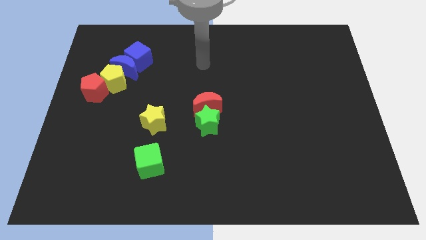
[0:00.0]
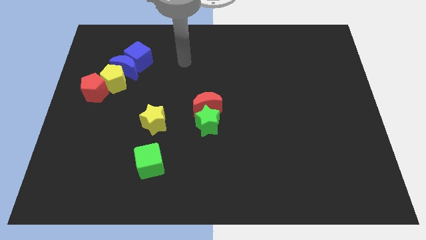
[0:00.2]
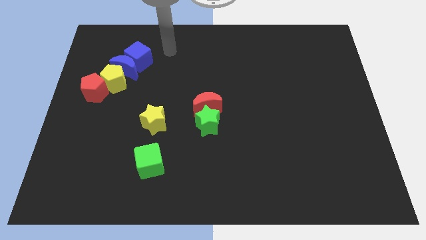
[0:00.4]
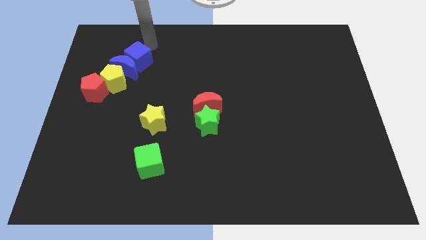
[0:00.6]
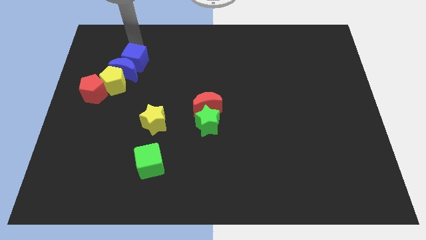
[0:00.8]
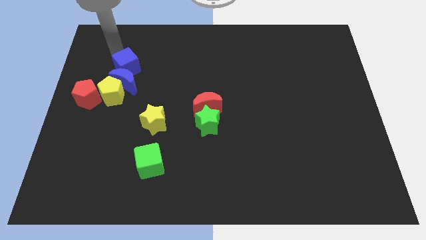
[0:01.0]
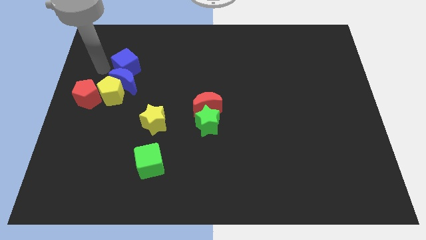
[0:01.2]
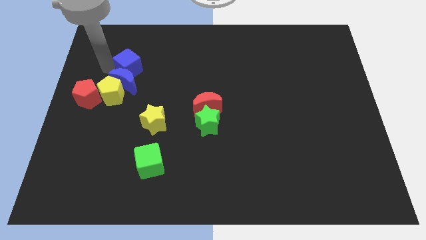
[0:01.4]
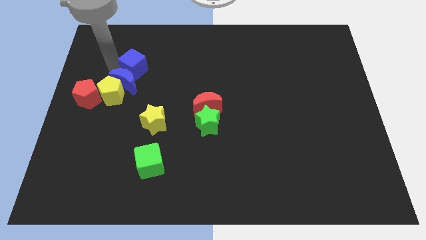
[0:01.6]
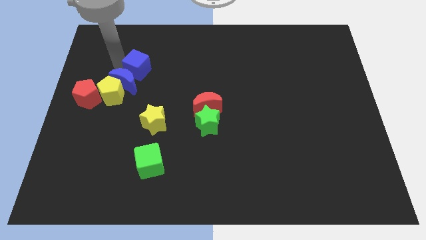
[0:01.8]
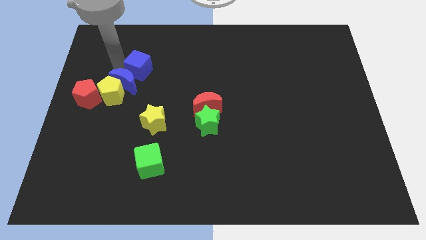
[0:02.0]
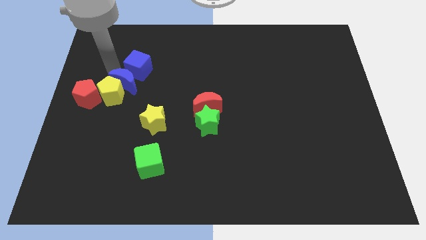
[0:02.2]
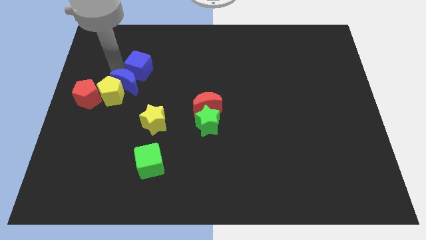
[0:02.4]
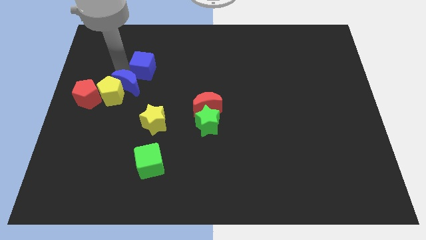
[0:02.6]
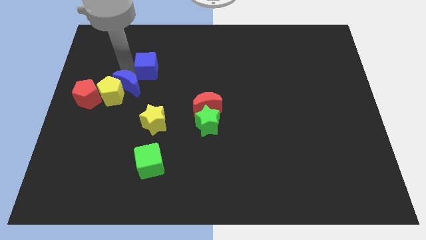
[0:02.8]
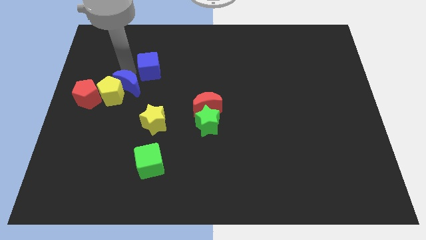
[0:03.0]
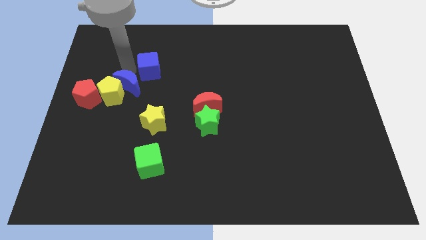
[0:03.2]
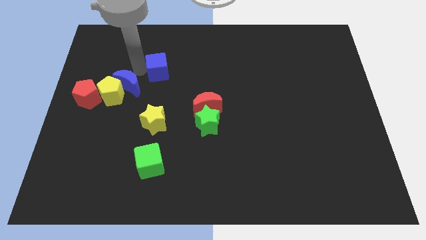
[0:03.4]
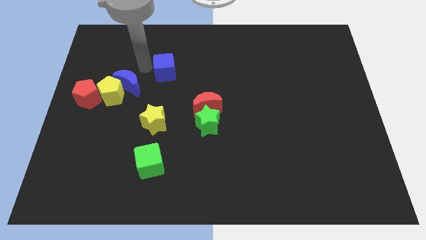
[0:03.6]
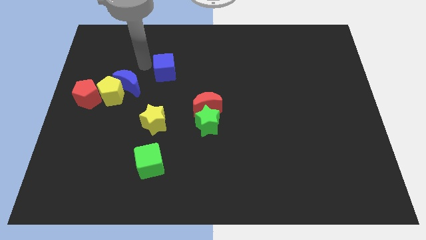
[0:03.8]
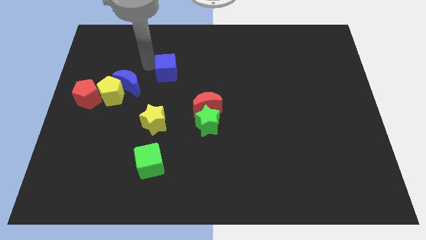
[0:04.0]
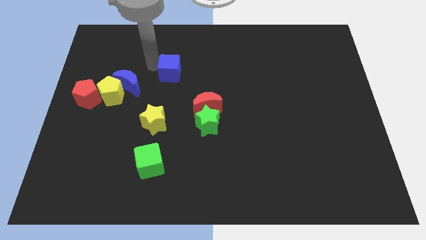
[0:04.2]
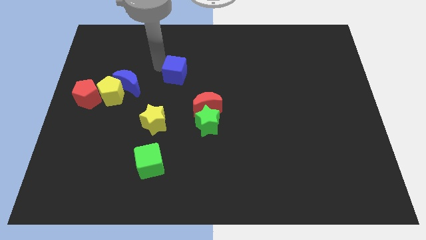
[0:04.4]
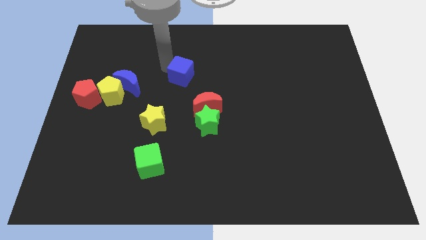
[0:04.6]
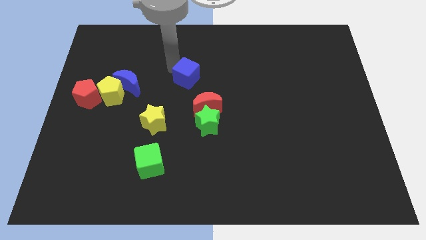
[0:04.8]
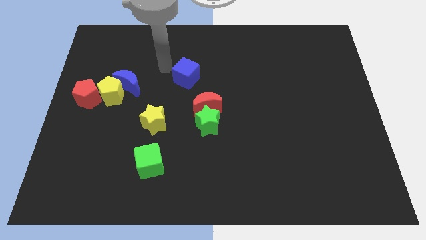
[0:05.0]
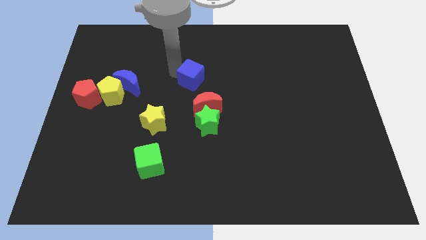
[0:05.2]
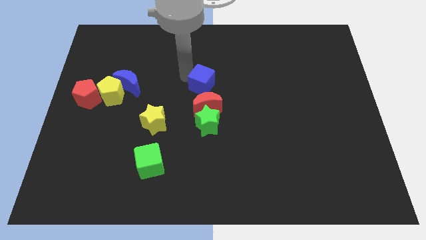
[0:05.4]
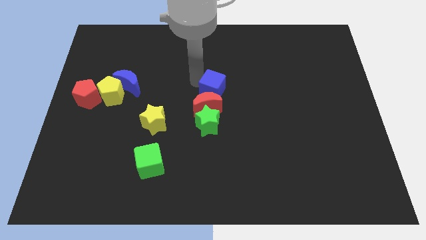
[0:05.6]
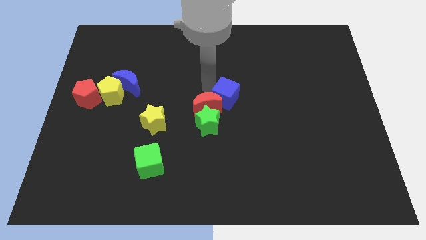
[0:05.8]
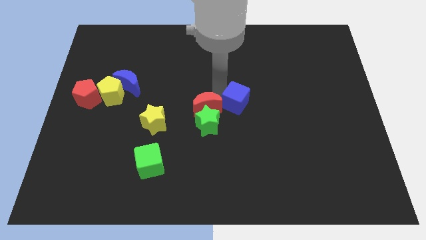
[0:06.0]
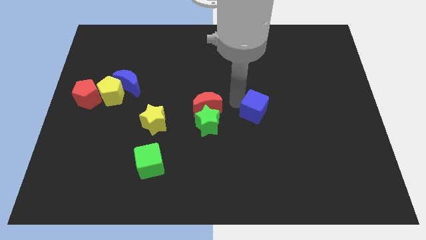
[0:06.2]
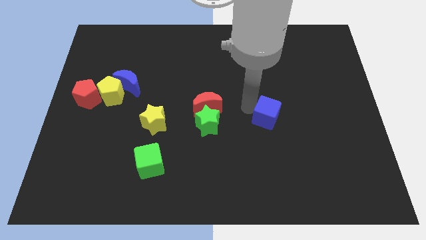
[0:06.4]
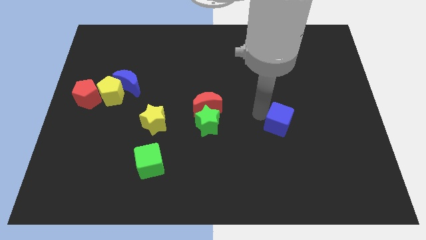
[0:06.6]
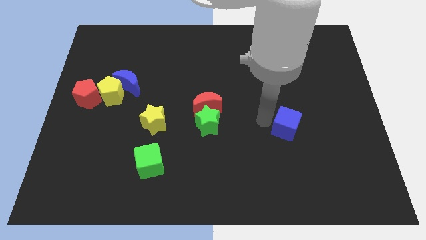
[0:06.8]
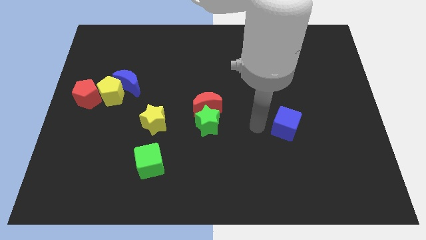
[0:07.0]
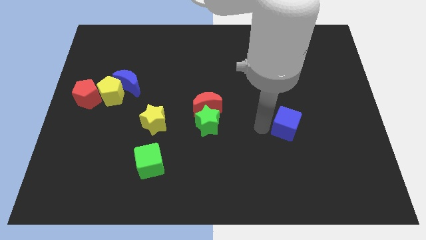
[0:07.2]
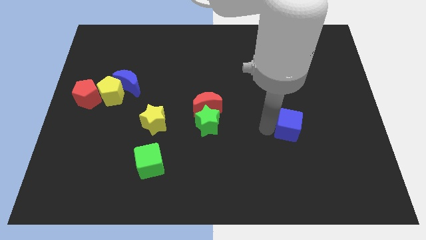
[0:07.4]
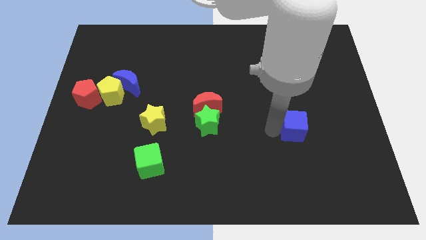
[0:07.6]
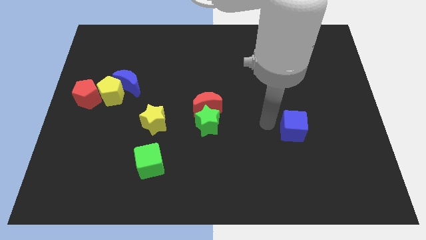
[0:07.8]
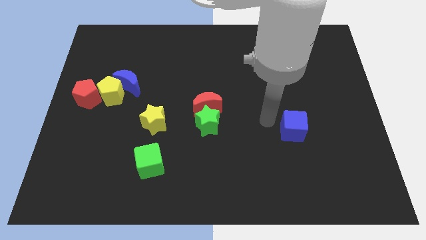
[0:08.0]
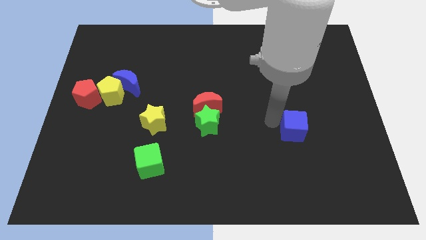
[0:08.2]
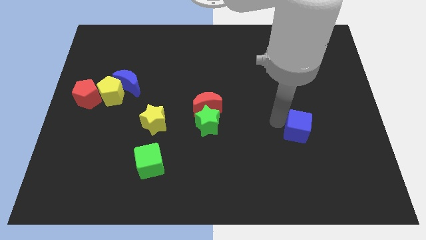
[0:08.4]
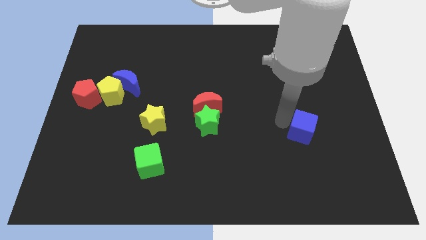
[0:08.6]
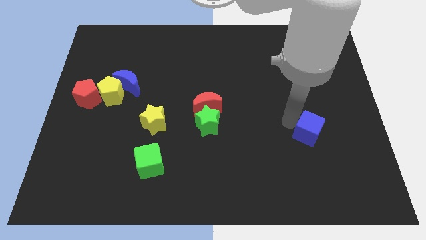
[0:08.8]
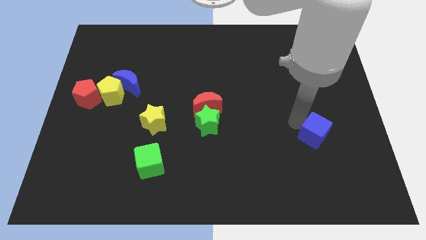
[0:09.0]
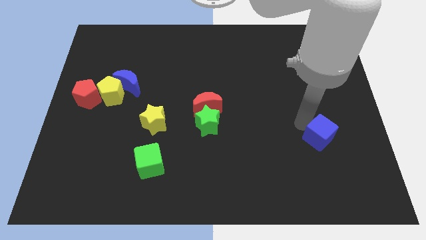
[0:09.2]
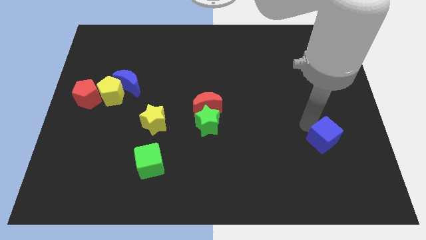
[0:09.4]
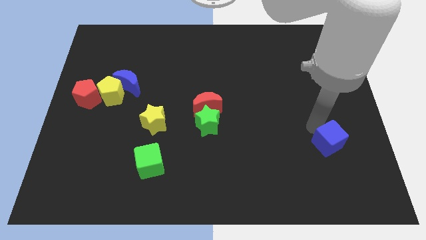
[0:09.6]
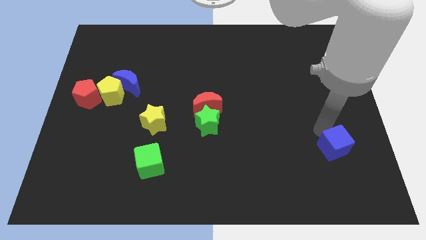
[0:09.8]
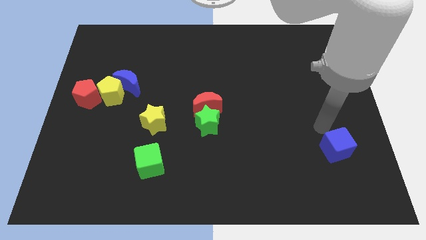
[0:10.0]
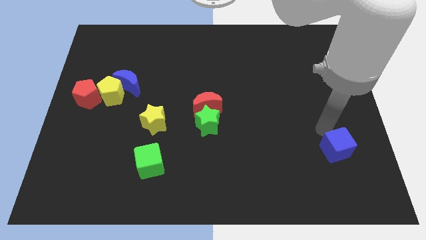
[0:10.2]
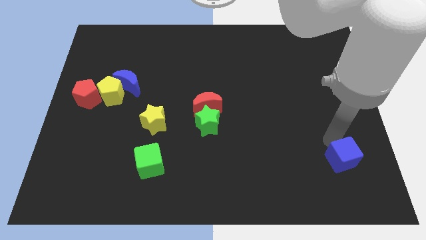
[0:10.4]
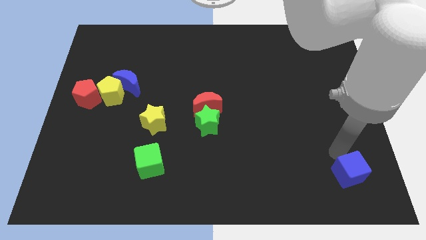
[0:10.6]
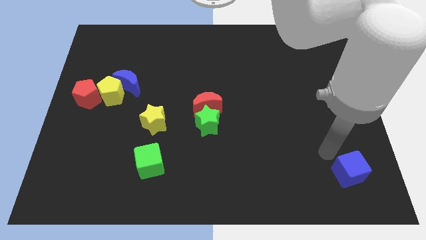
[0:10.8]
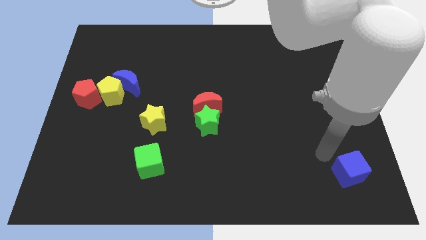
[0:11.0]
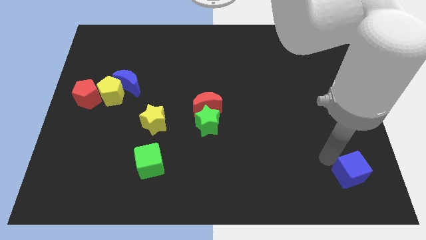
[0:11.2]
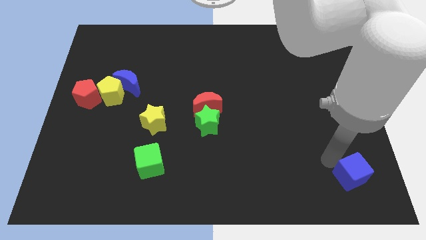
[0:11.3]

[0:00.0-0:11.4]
move the blue cube to the lower right corner

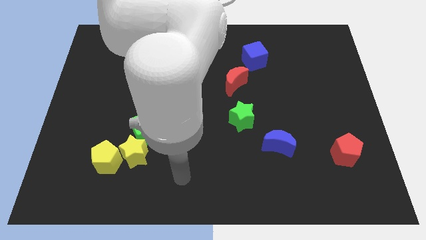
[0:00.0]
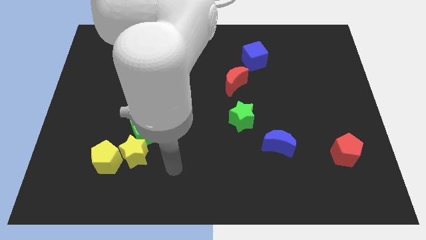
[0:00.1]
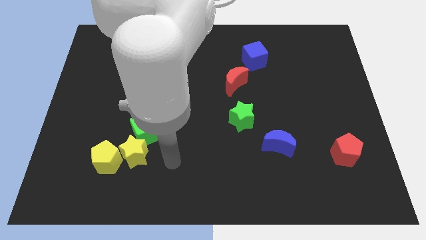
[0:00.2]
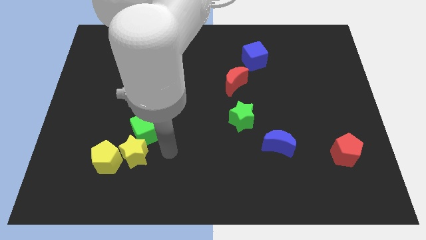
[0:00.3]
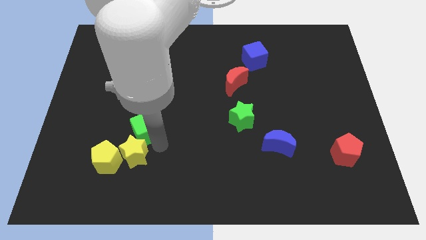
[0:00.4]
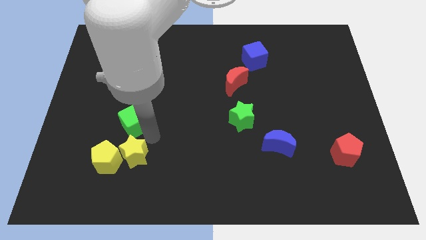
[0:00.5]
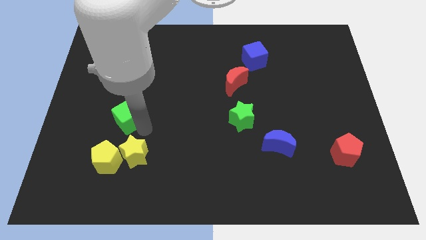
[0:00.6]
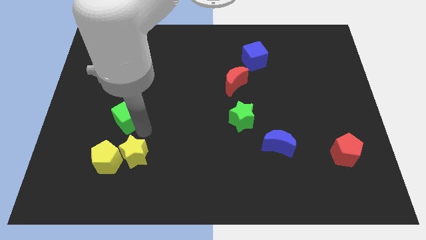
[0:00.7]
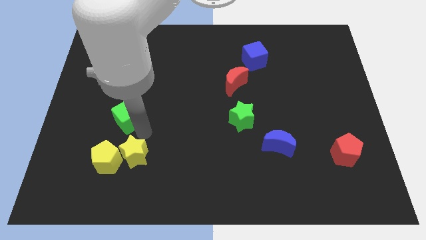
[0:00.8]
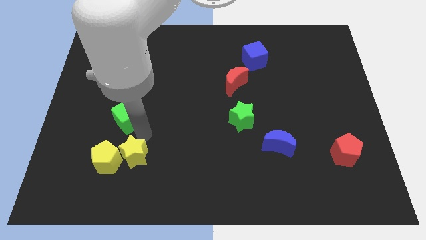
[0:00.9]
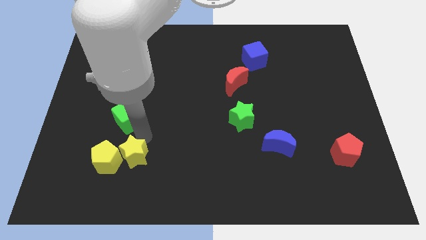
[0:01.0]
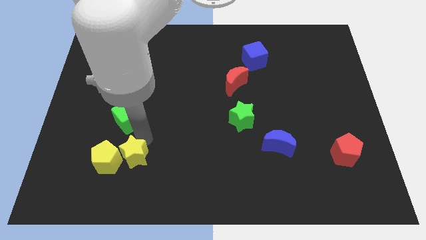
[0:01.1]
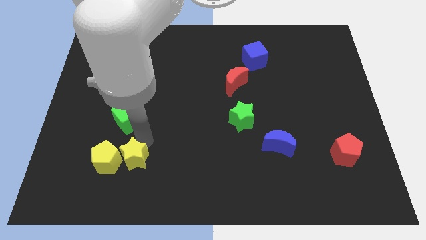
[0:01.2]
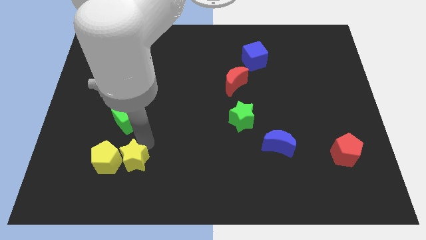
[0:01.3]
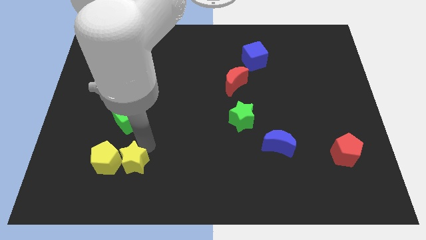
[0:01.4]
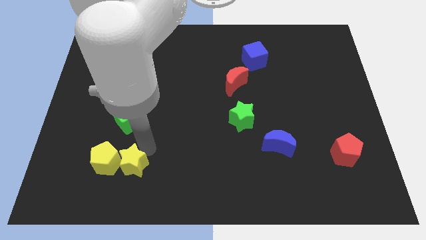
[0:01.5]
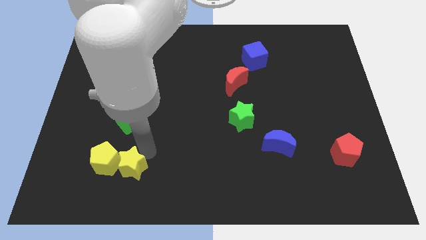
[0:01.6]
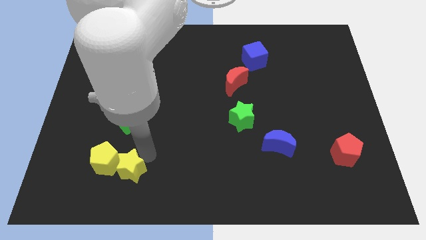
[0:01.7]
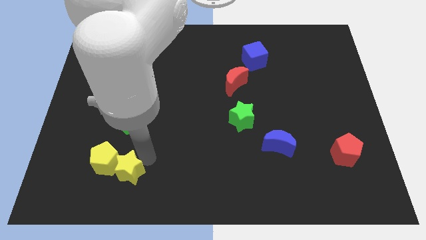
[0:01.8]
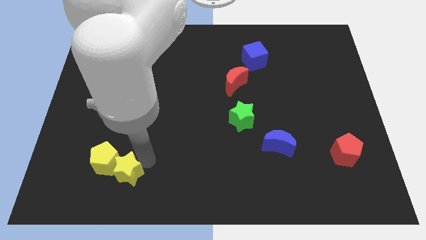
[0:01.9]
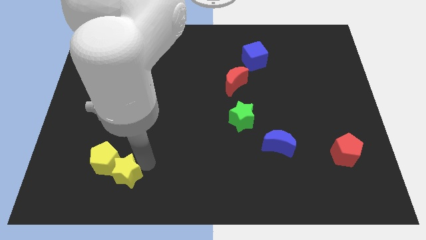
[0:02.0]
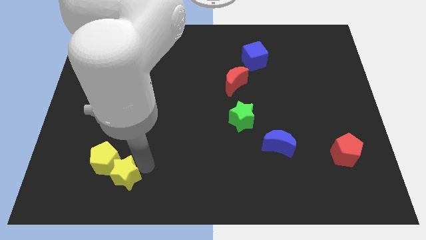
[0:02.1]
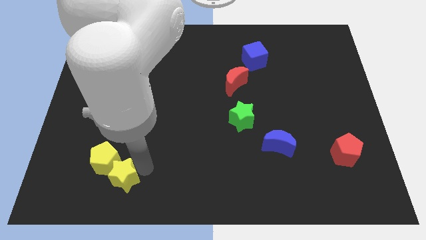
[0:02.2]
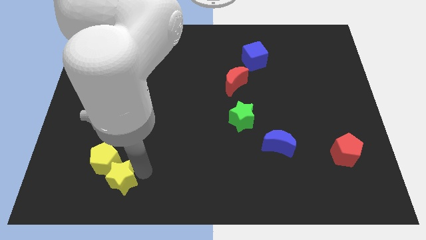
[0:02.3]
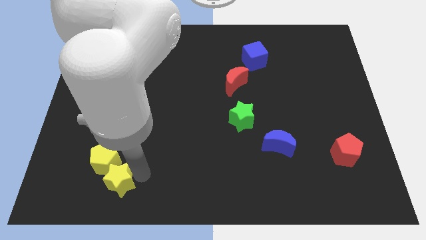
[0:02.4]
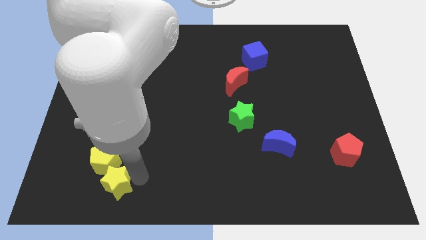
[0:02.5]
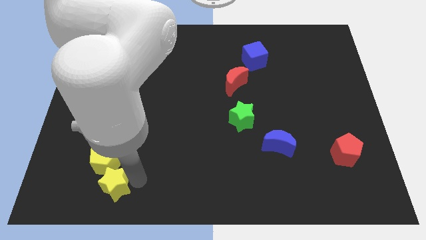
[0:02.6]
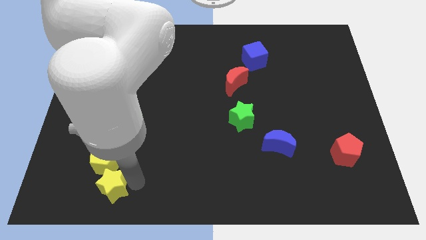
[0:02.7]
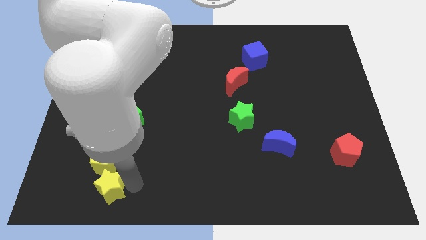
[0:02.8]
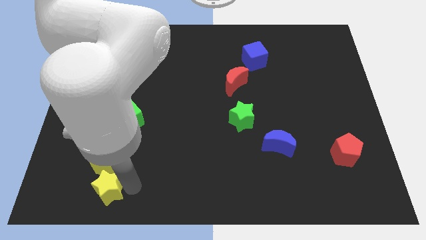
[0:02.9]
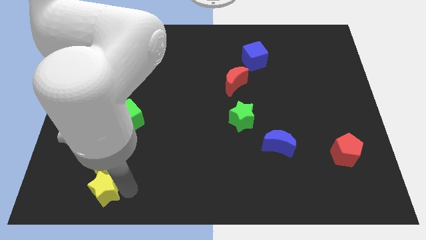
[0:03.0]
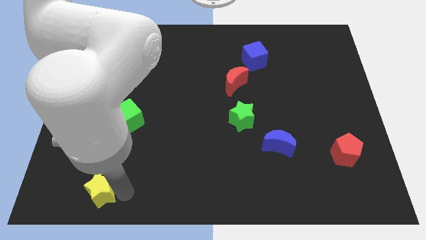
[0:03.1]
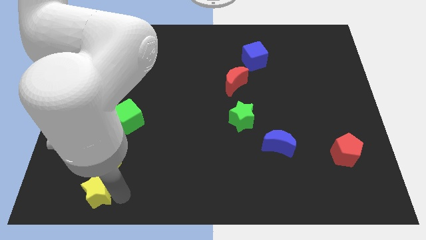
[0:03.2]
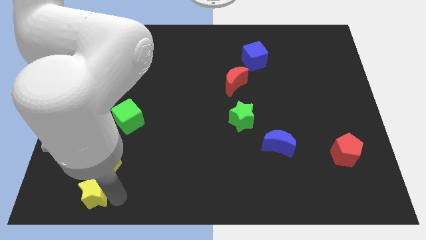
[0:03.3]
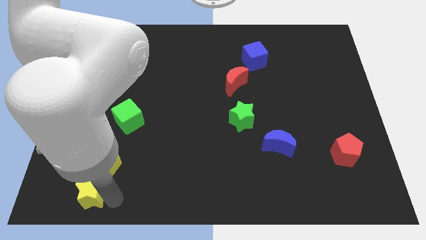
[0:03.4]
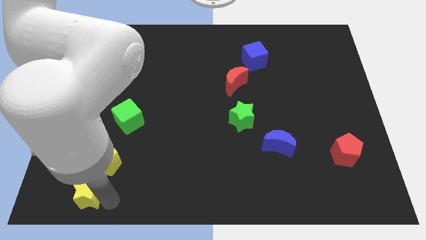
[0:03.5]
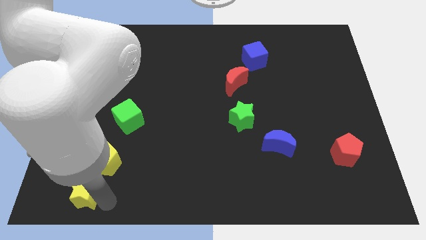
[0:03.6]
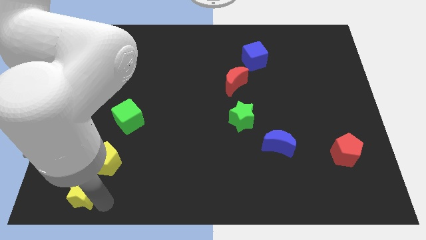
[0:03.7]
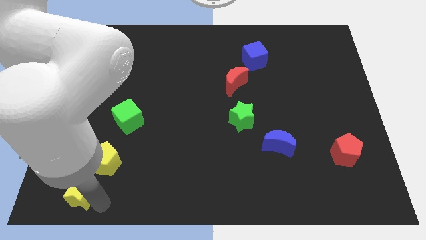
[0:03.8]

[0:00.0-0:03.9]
slide the yellow star to the bottom left corner
